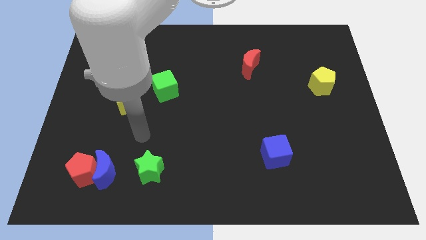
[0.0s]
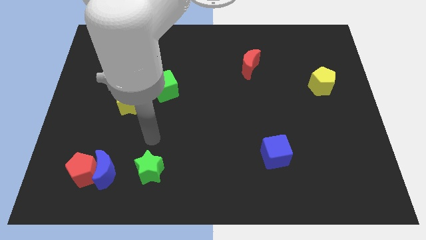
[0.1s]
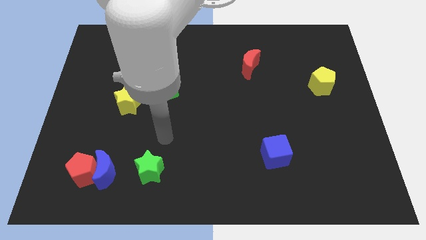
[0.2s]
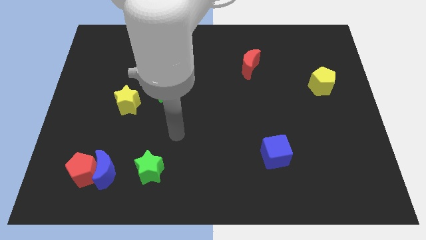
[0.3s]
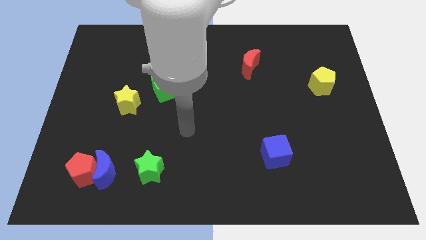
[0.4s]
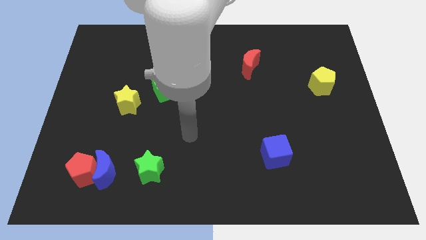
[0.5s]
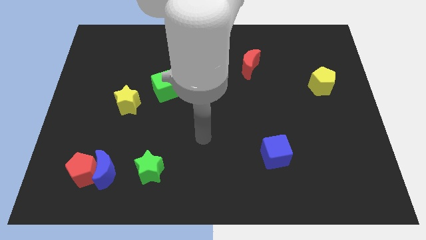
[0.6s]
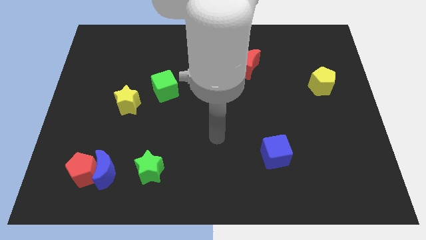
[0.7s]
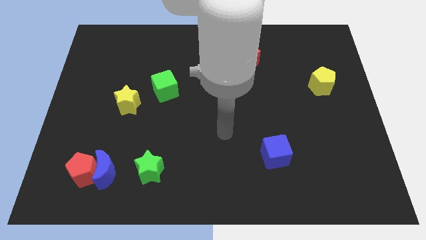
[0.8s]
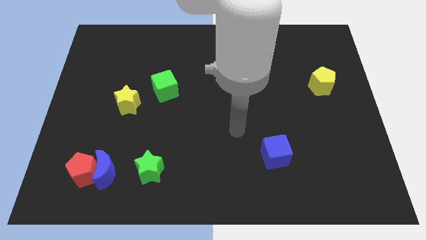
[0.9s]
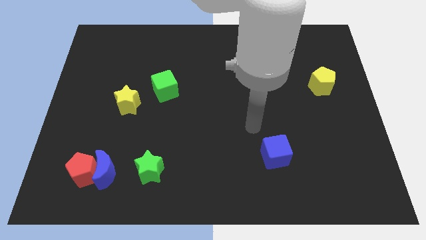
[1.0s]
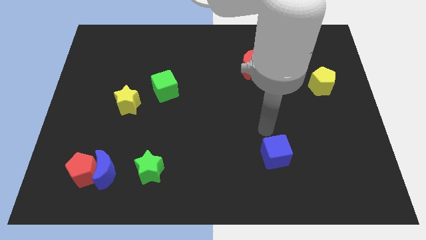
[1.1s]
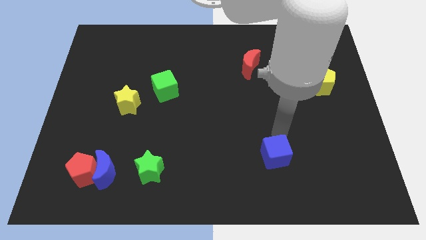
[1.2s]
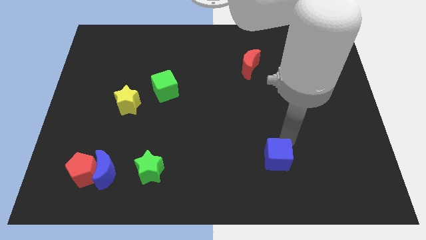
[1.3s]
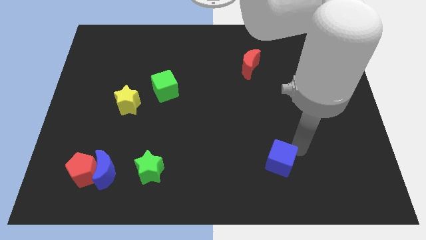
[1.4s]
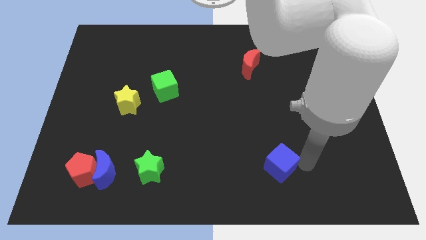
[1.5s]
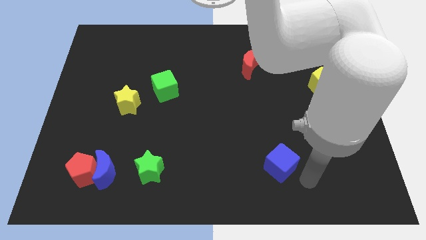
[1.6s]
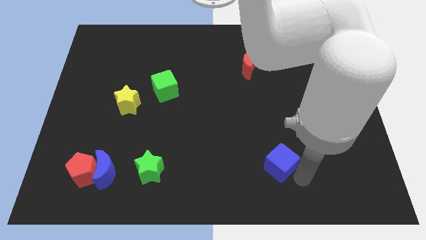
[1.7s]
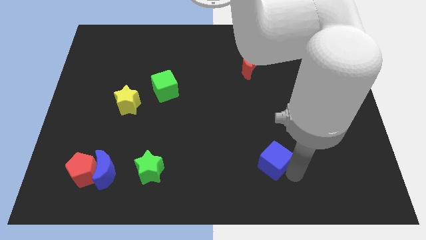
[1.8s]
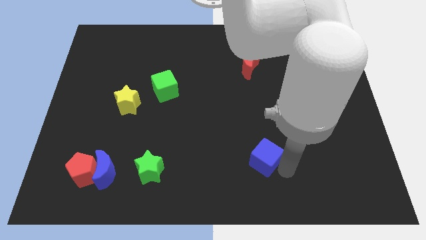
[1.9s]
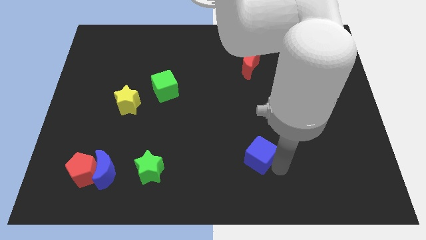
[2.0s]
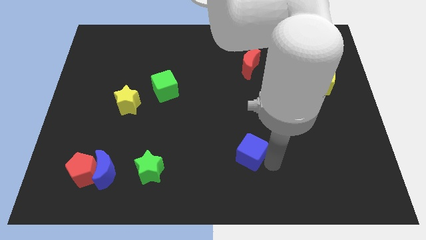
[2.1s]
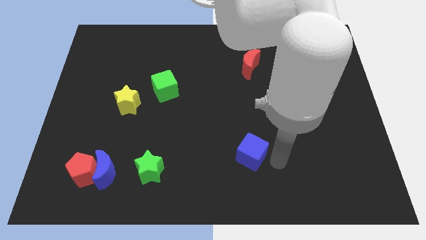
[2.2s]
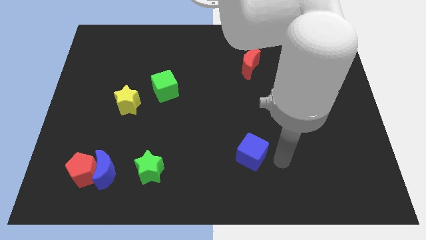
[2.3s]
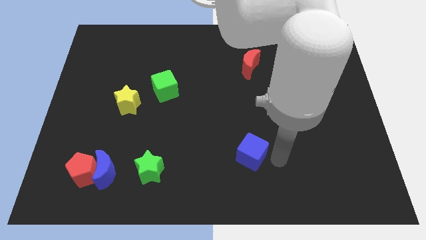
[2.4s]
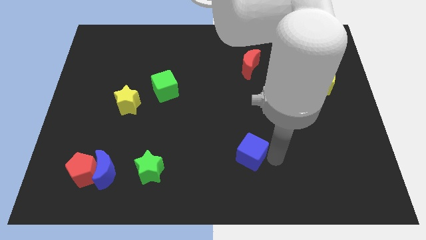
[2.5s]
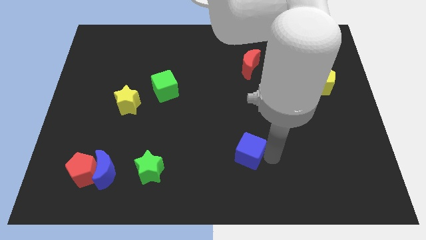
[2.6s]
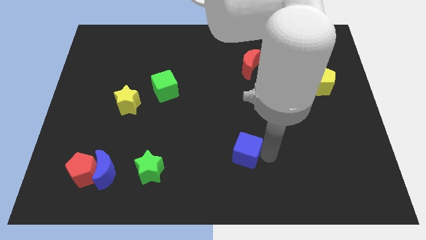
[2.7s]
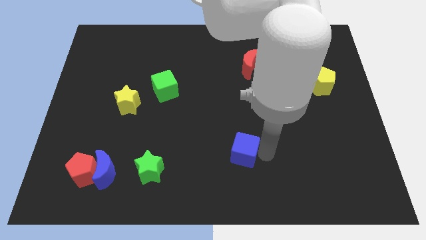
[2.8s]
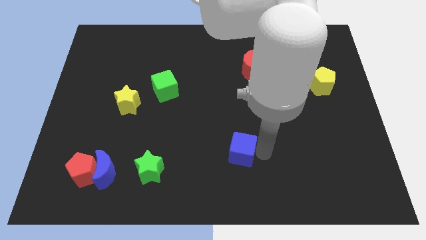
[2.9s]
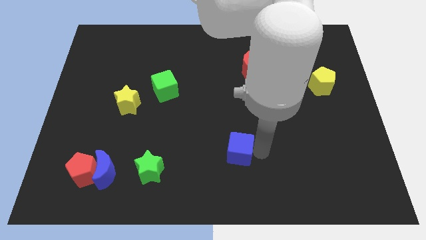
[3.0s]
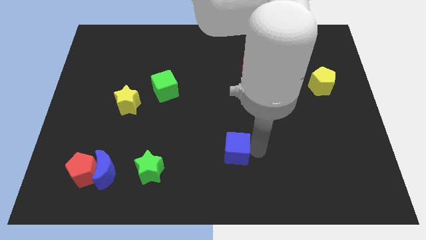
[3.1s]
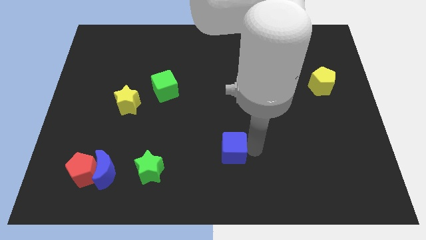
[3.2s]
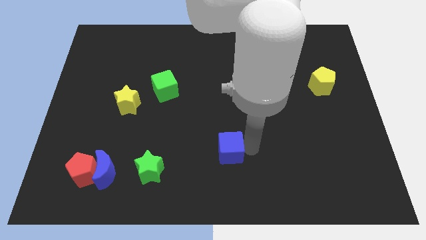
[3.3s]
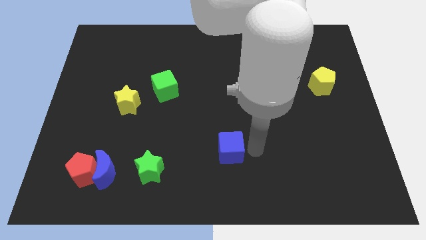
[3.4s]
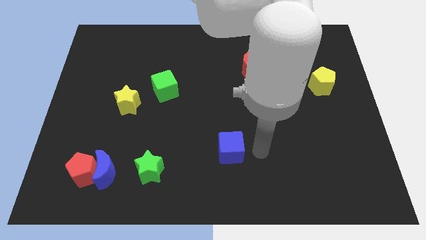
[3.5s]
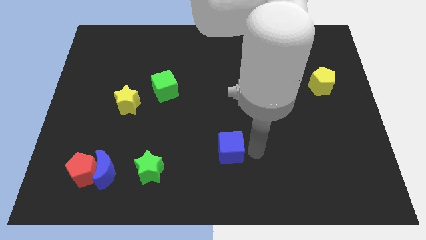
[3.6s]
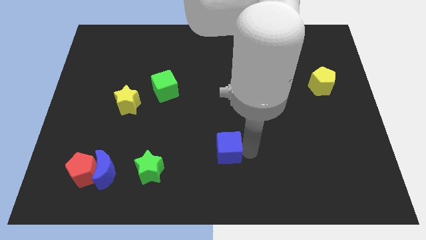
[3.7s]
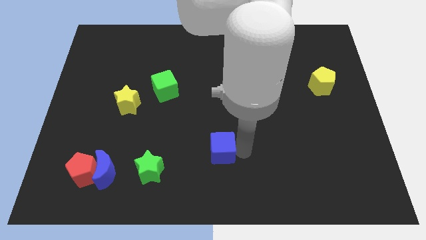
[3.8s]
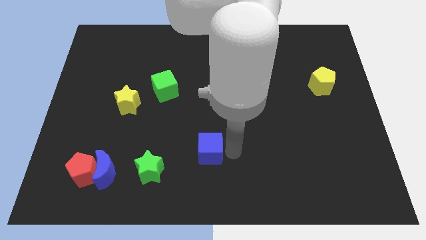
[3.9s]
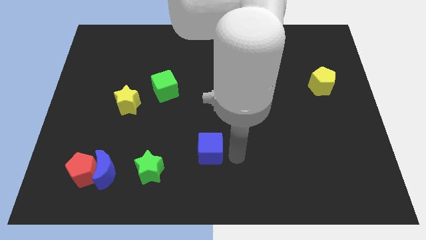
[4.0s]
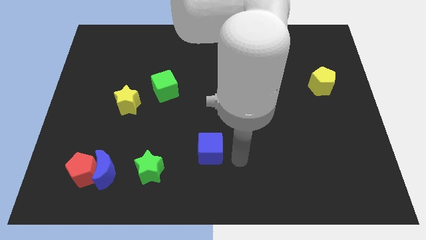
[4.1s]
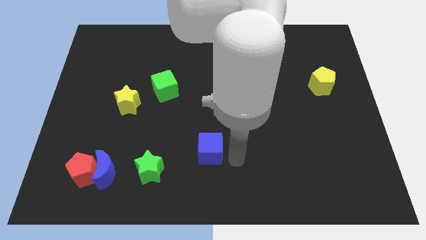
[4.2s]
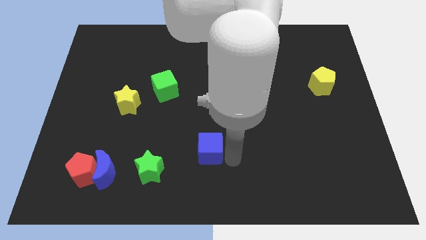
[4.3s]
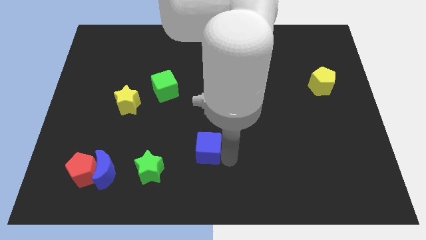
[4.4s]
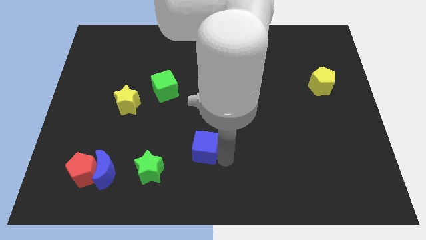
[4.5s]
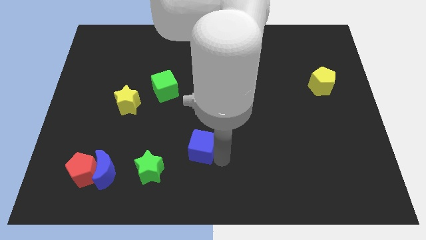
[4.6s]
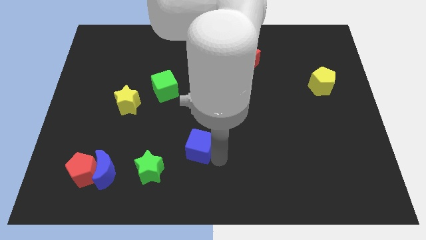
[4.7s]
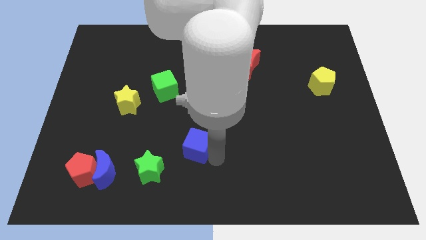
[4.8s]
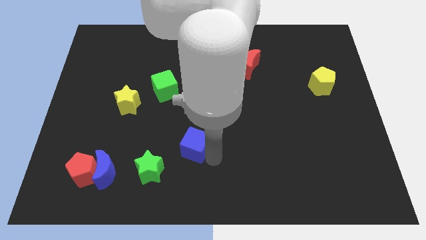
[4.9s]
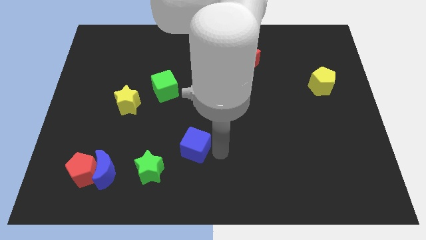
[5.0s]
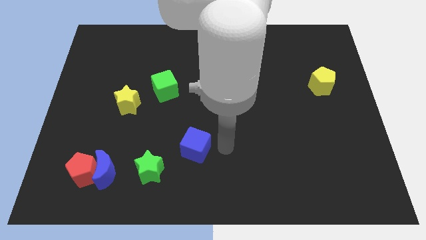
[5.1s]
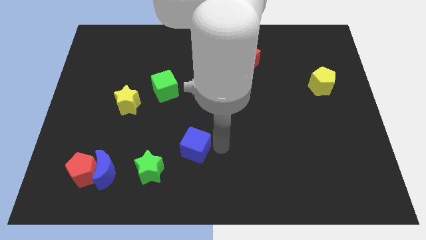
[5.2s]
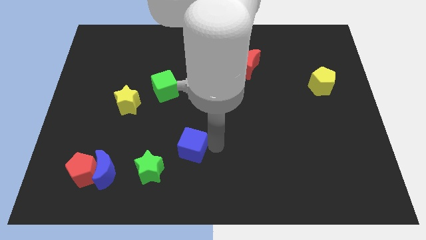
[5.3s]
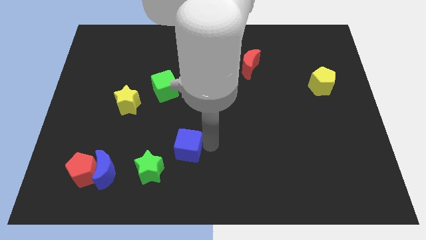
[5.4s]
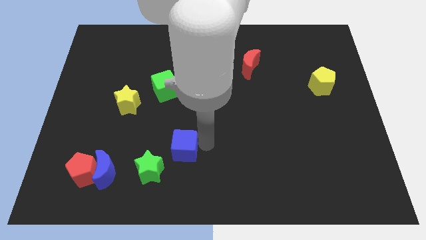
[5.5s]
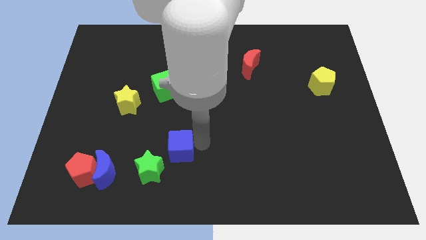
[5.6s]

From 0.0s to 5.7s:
push the blue cube left

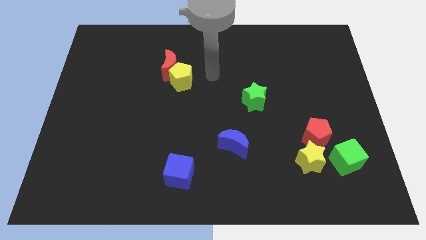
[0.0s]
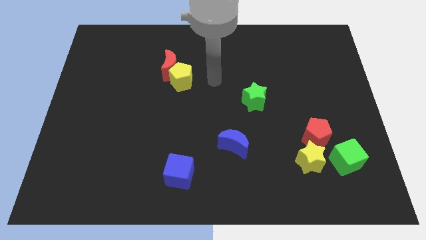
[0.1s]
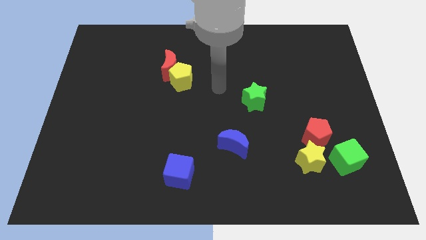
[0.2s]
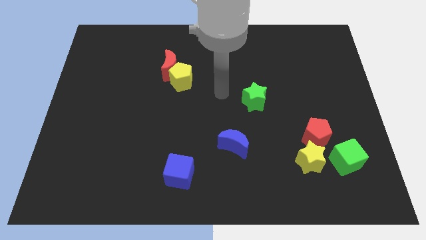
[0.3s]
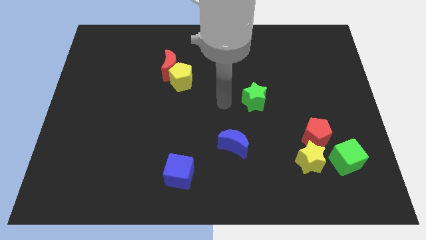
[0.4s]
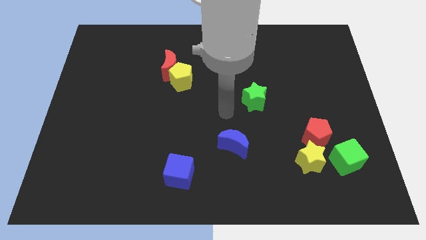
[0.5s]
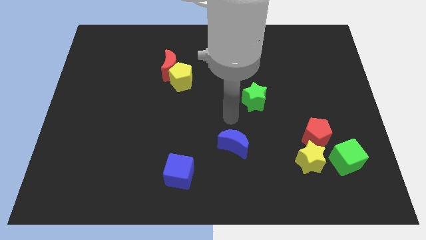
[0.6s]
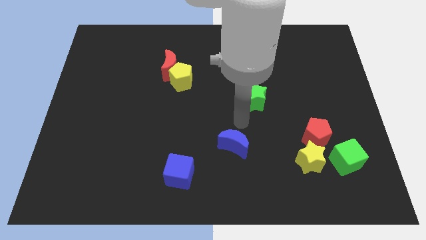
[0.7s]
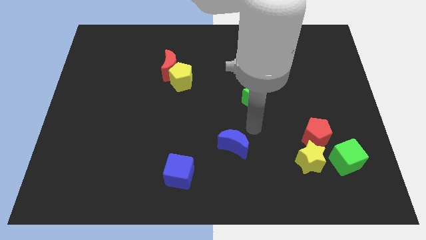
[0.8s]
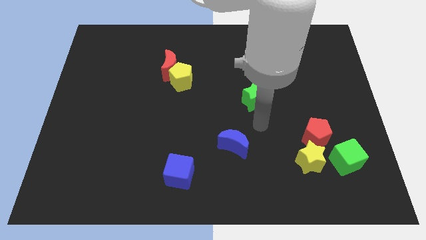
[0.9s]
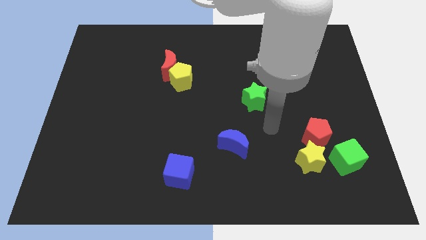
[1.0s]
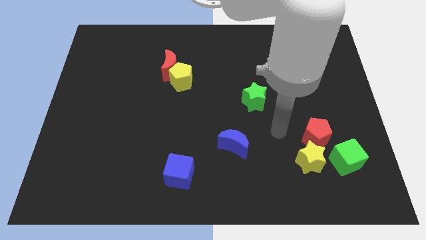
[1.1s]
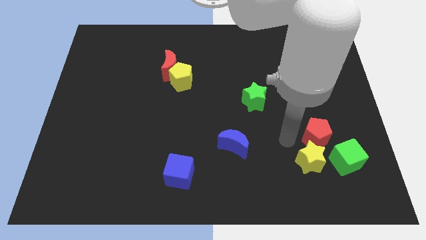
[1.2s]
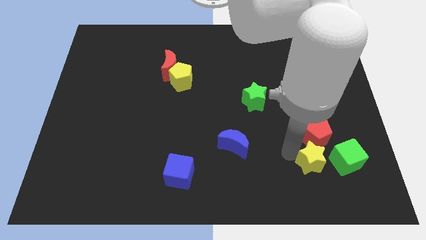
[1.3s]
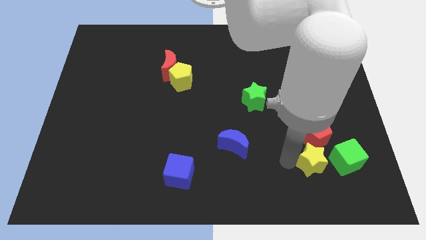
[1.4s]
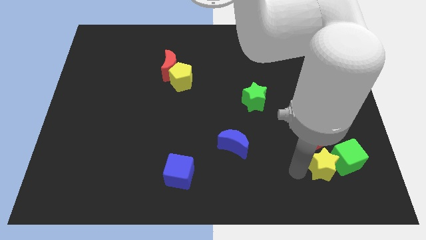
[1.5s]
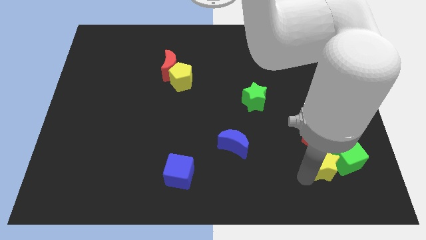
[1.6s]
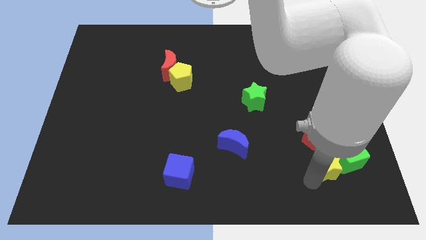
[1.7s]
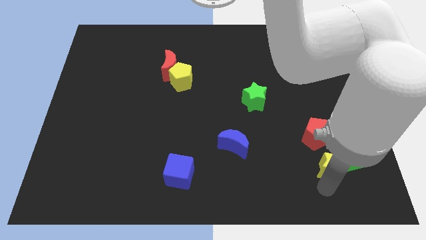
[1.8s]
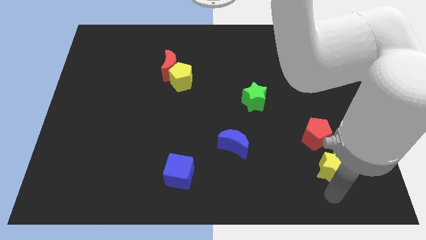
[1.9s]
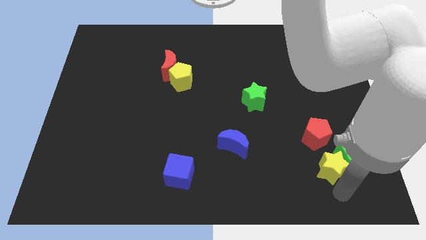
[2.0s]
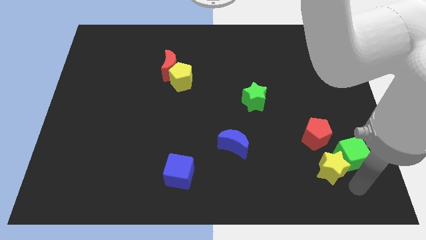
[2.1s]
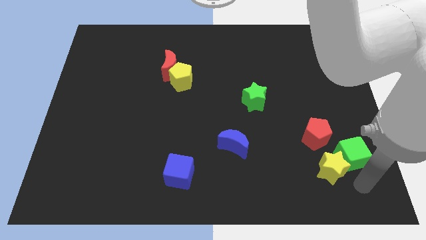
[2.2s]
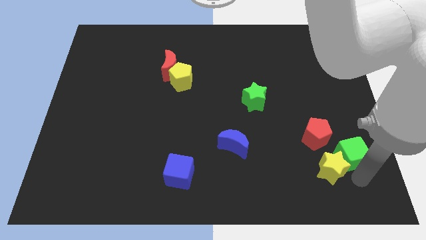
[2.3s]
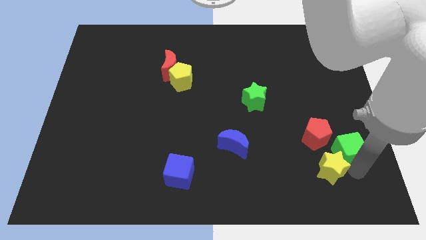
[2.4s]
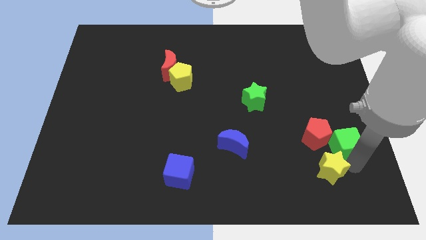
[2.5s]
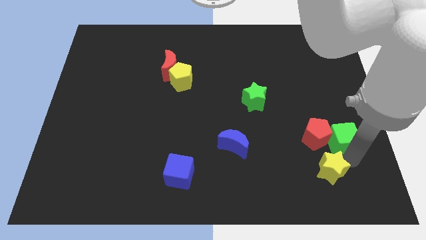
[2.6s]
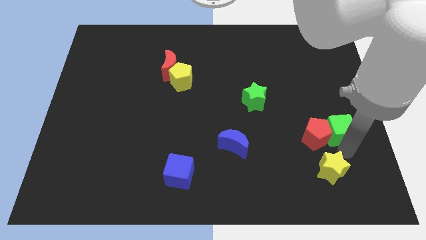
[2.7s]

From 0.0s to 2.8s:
move the green cube up slightly
